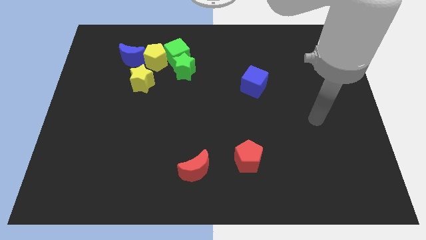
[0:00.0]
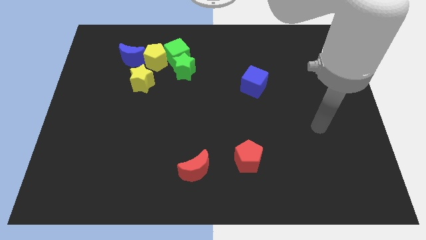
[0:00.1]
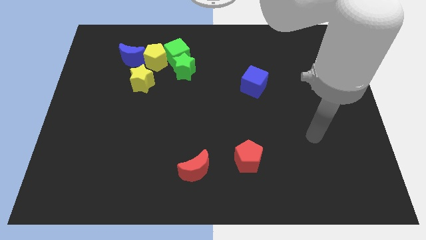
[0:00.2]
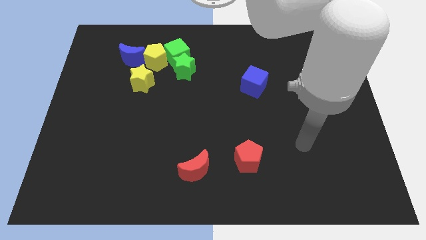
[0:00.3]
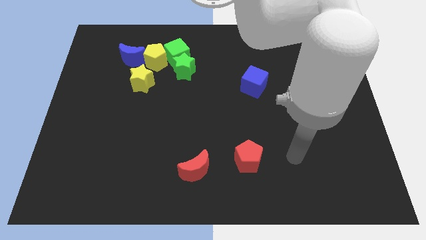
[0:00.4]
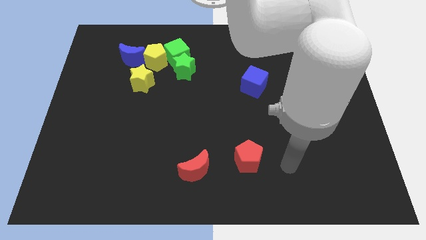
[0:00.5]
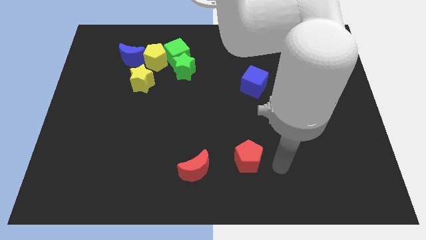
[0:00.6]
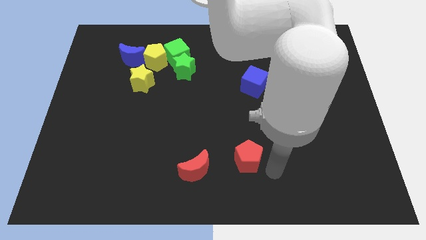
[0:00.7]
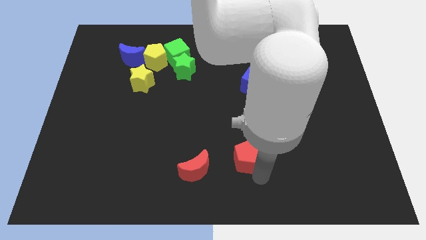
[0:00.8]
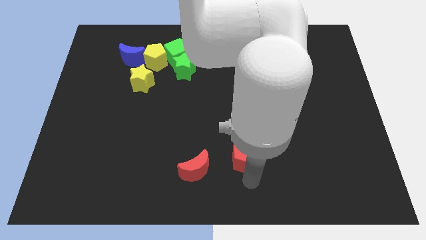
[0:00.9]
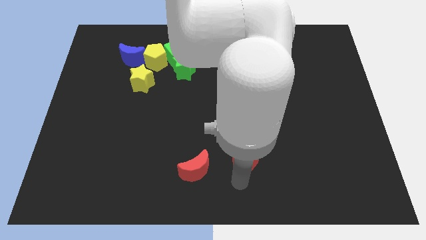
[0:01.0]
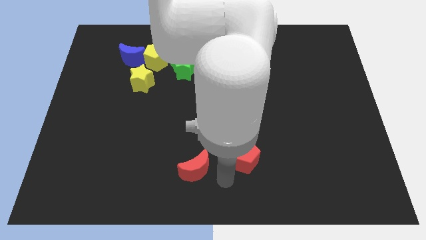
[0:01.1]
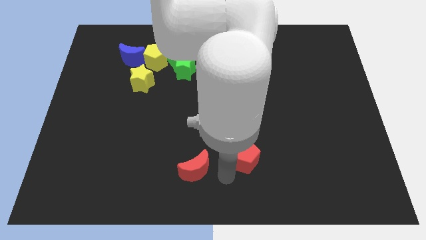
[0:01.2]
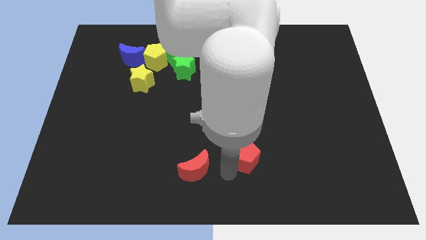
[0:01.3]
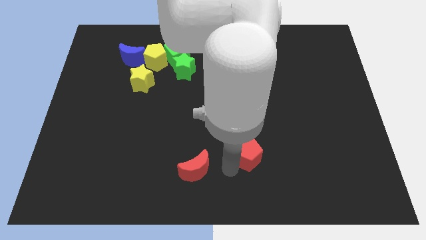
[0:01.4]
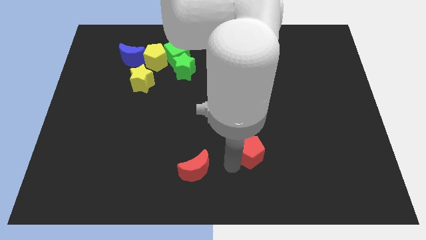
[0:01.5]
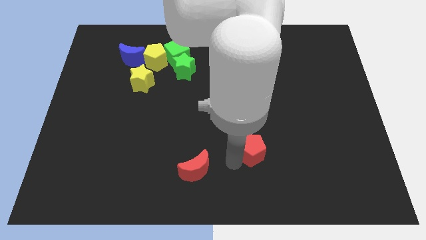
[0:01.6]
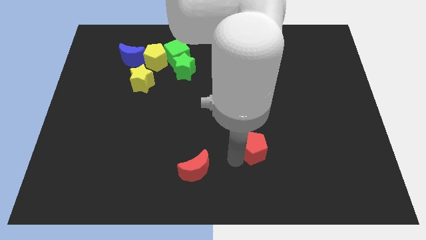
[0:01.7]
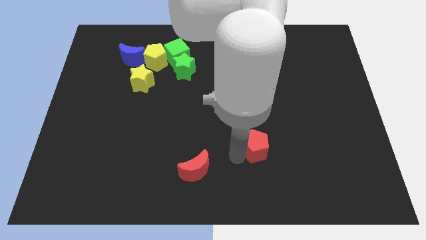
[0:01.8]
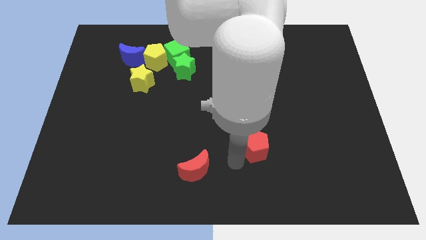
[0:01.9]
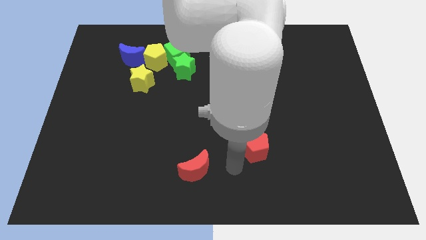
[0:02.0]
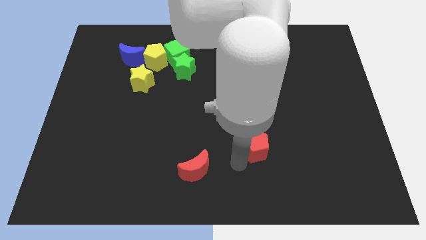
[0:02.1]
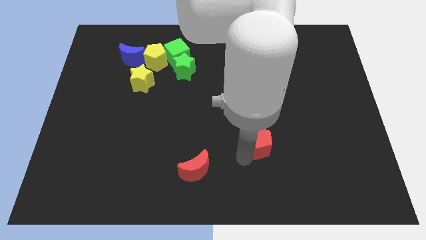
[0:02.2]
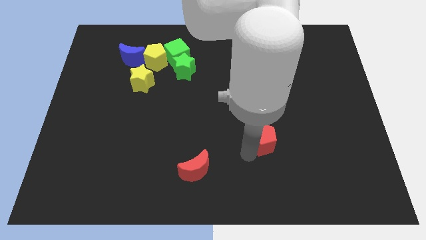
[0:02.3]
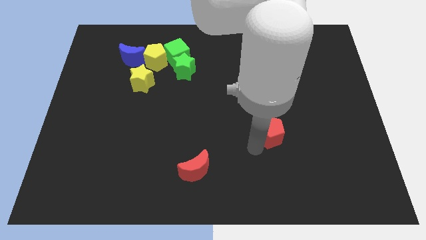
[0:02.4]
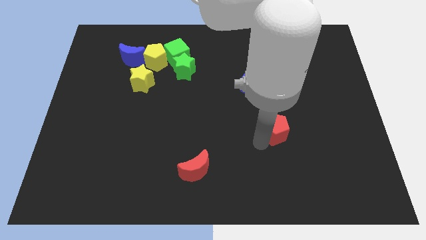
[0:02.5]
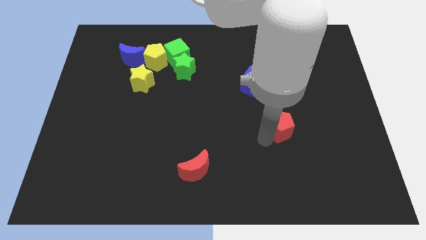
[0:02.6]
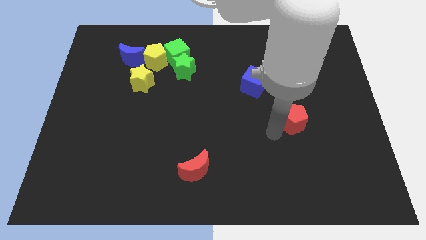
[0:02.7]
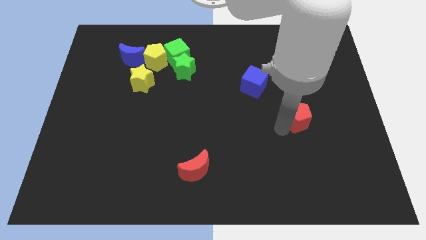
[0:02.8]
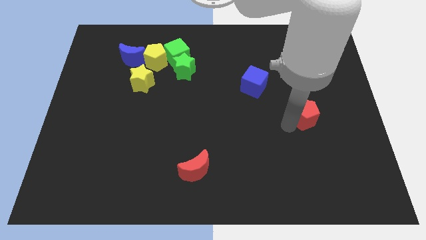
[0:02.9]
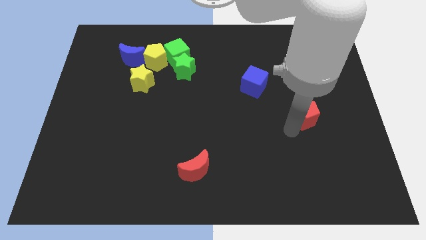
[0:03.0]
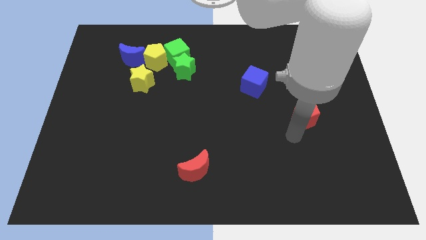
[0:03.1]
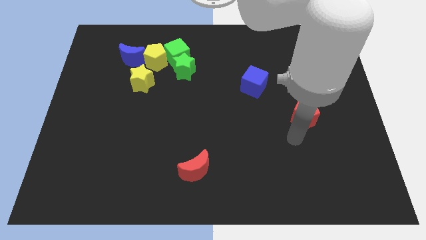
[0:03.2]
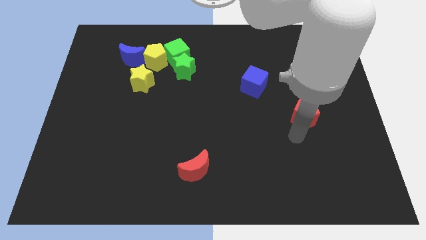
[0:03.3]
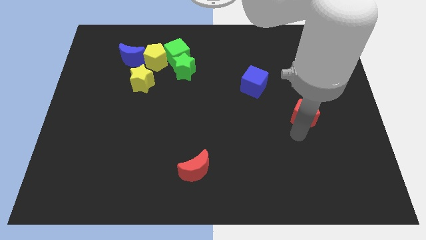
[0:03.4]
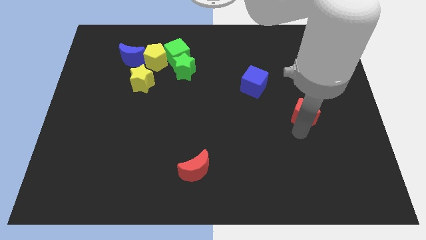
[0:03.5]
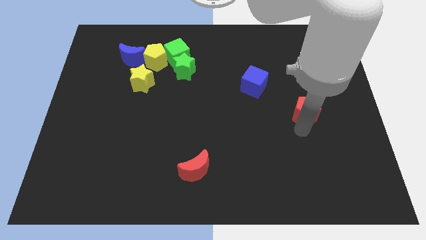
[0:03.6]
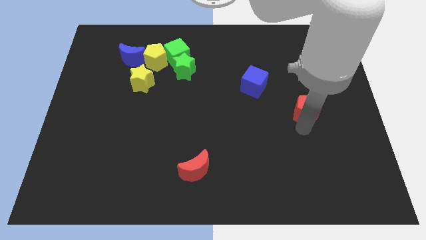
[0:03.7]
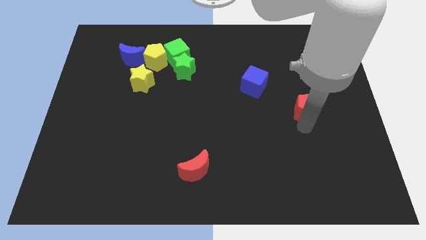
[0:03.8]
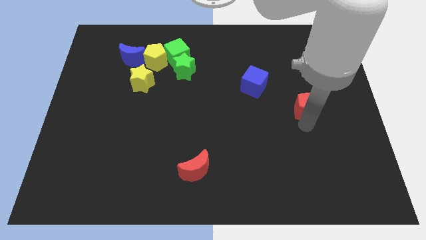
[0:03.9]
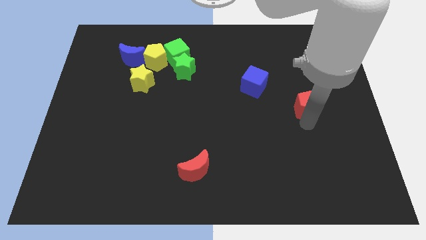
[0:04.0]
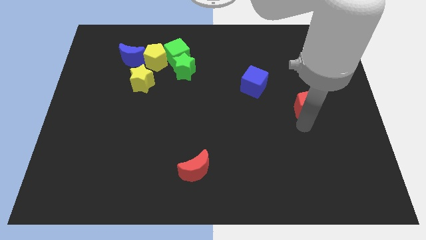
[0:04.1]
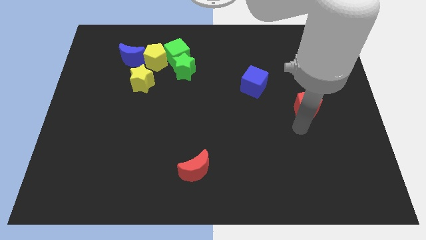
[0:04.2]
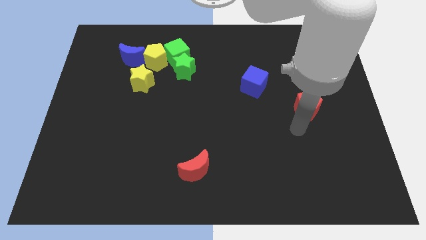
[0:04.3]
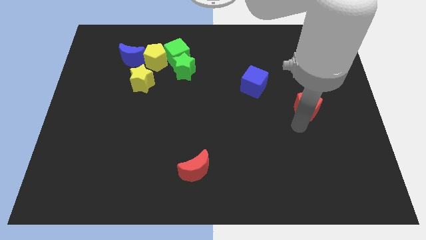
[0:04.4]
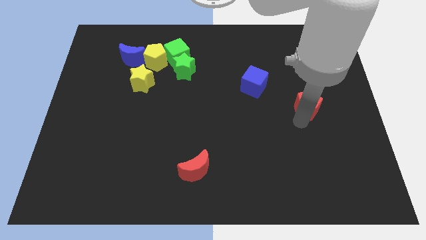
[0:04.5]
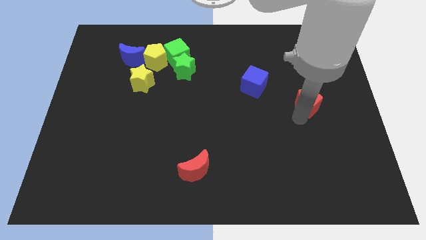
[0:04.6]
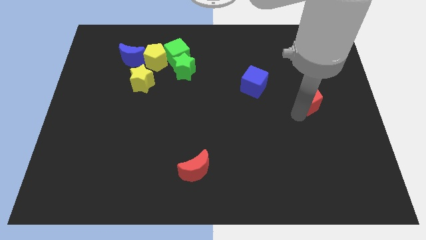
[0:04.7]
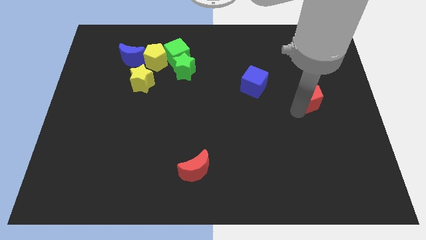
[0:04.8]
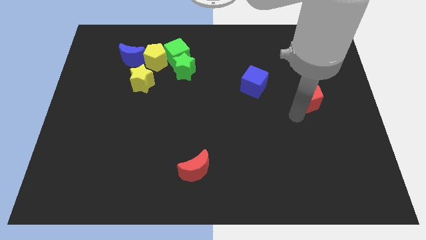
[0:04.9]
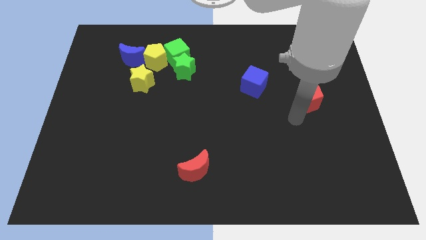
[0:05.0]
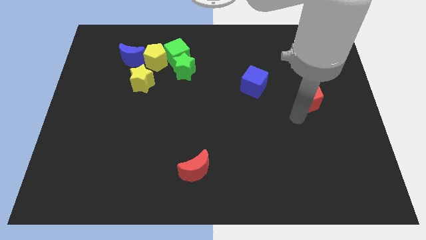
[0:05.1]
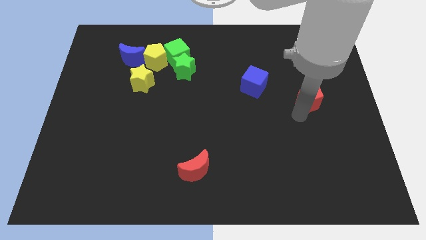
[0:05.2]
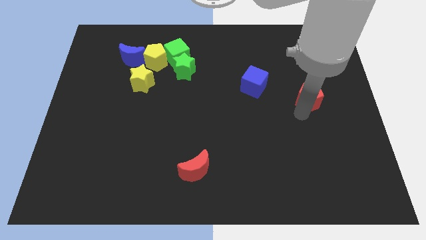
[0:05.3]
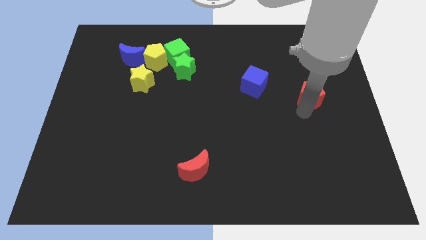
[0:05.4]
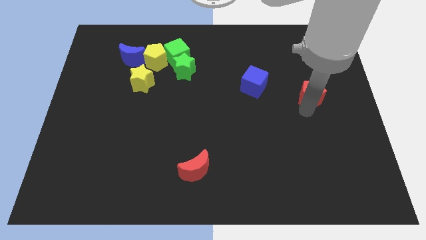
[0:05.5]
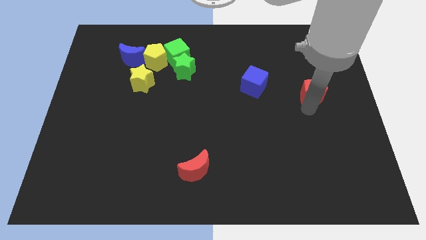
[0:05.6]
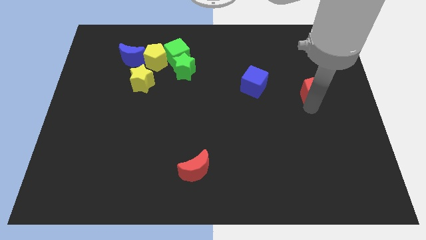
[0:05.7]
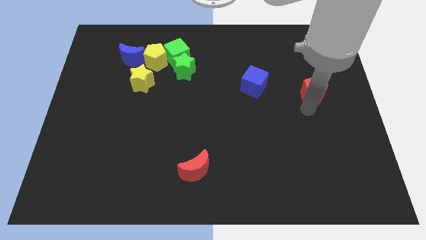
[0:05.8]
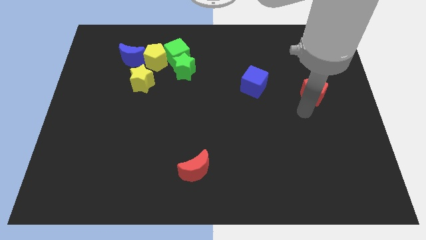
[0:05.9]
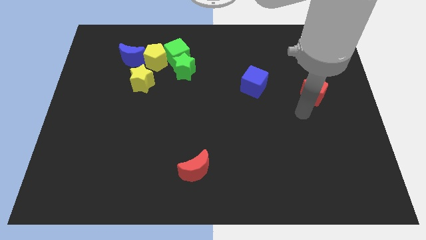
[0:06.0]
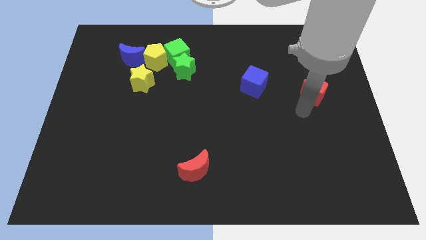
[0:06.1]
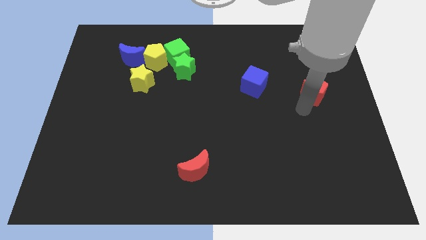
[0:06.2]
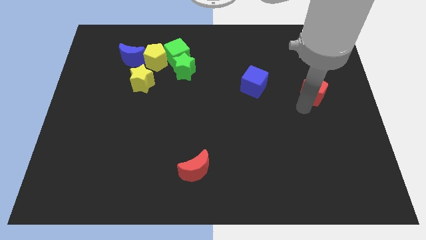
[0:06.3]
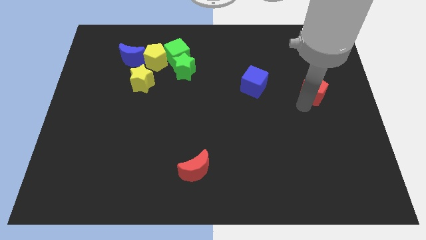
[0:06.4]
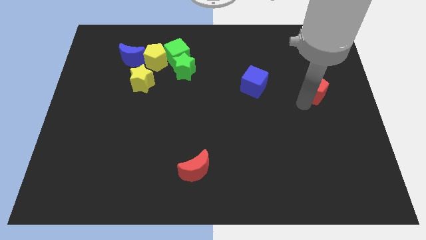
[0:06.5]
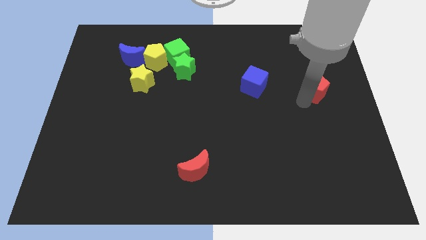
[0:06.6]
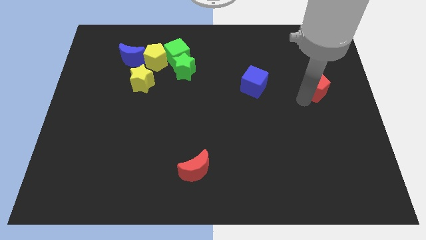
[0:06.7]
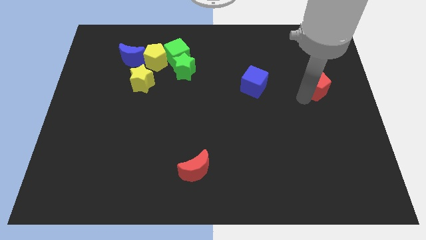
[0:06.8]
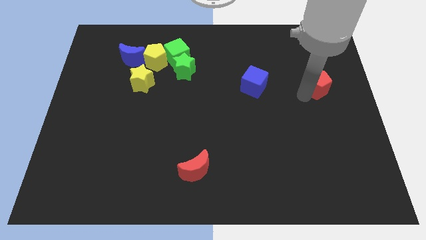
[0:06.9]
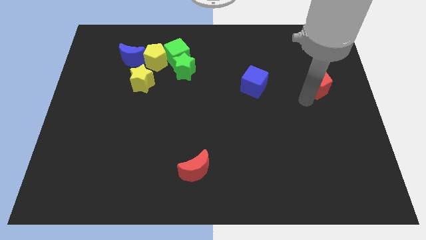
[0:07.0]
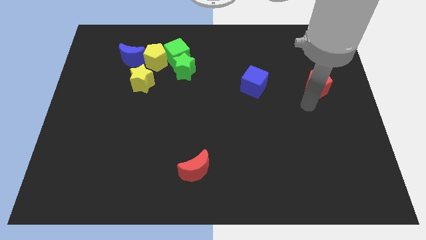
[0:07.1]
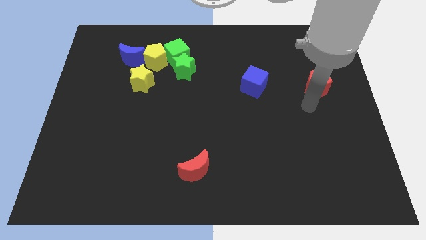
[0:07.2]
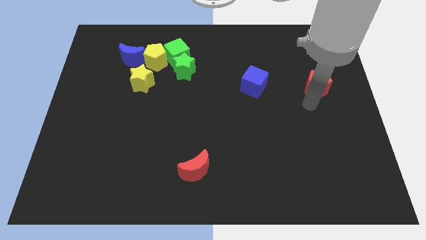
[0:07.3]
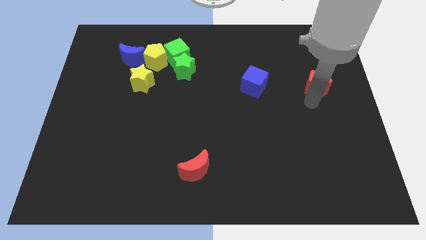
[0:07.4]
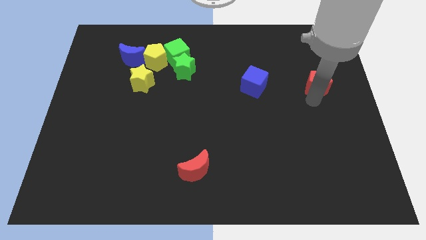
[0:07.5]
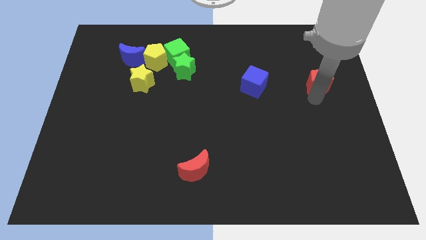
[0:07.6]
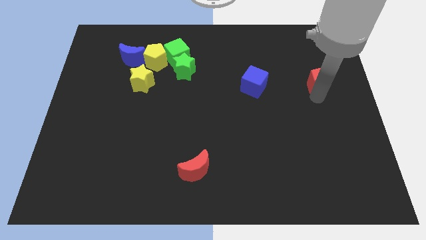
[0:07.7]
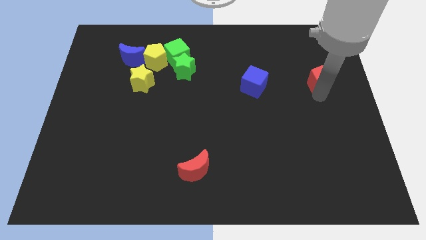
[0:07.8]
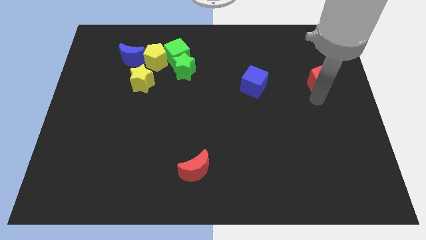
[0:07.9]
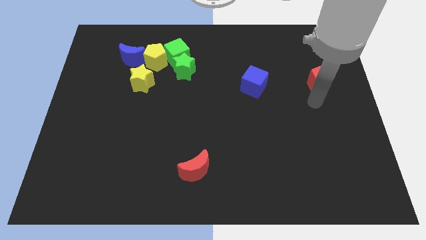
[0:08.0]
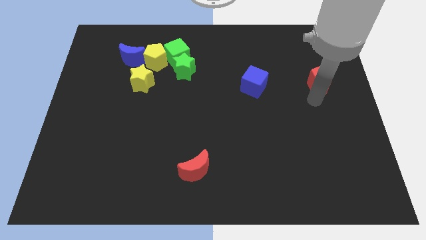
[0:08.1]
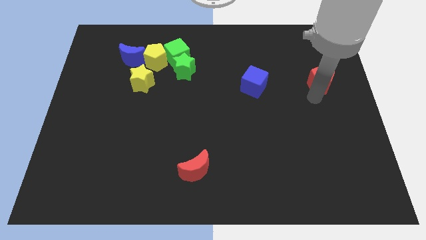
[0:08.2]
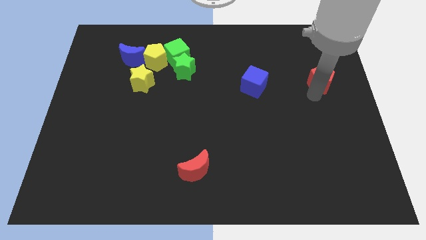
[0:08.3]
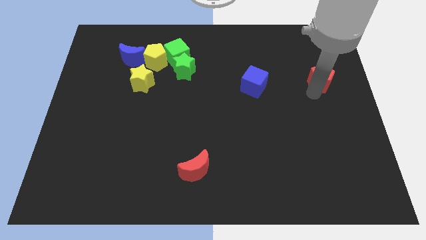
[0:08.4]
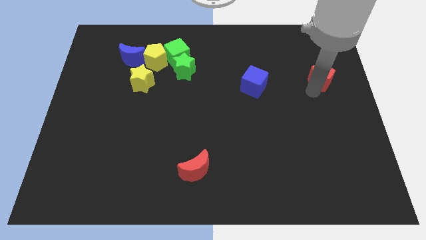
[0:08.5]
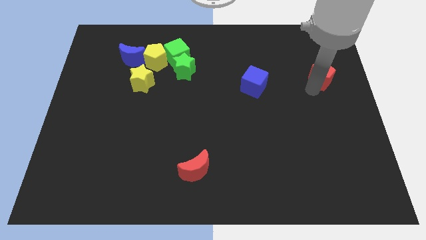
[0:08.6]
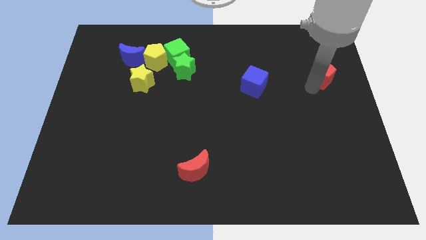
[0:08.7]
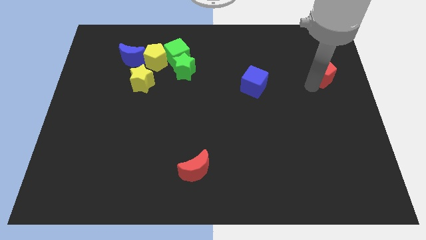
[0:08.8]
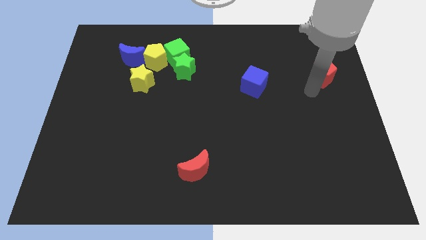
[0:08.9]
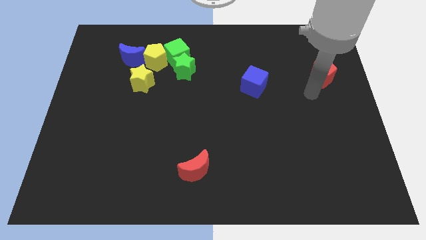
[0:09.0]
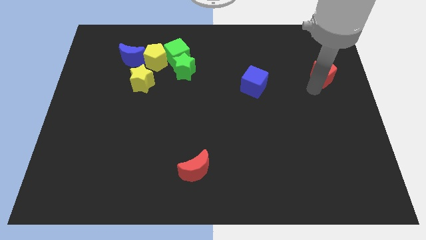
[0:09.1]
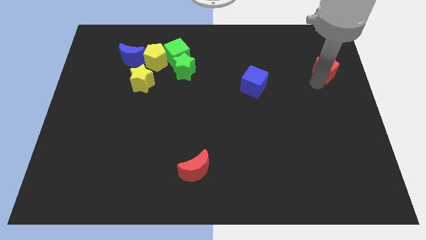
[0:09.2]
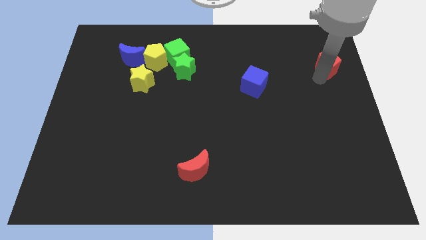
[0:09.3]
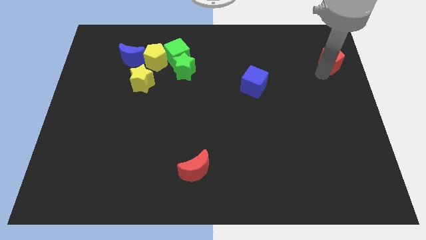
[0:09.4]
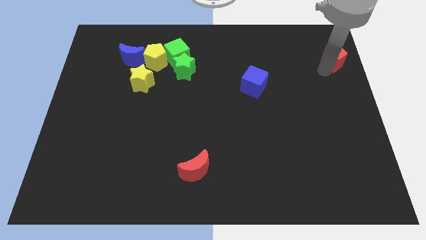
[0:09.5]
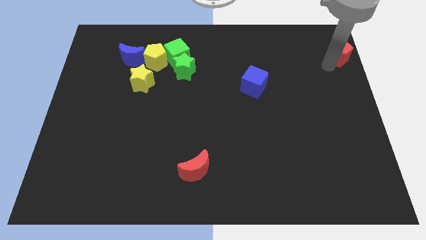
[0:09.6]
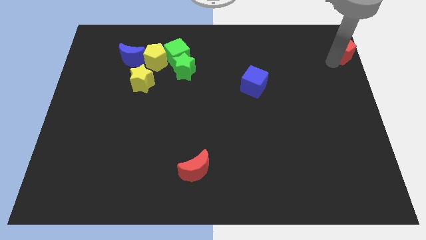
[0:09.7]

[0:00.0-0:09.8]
slide the red pentagon to the top right corner
